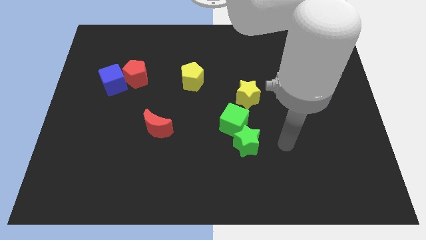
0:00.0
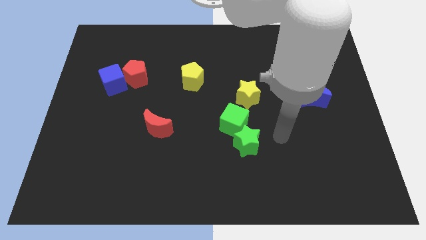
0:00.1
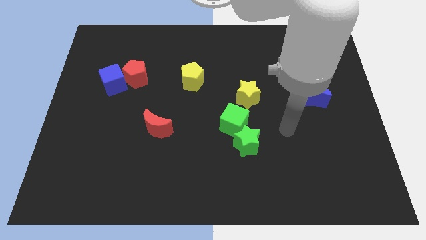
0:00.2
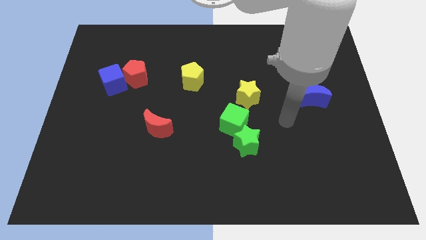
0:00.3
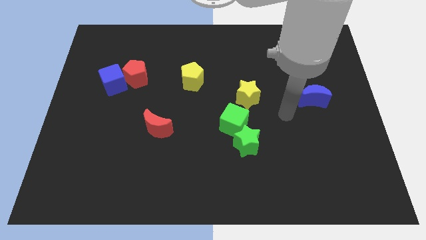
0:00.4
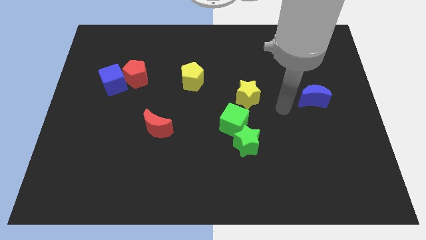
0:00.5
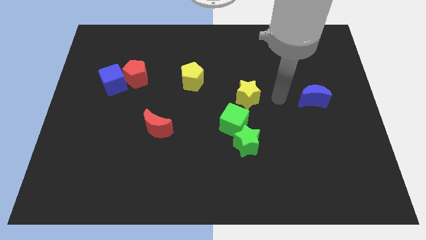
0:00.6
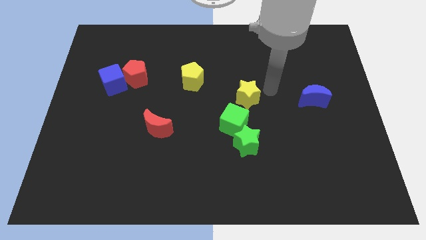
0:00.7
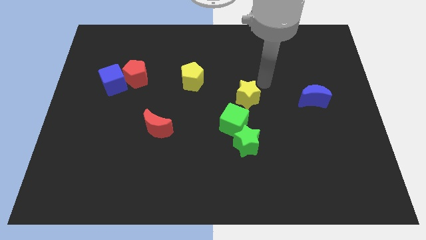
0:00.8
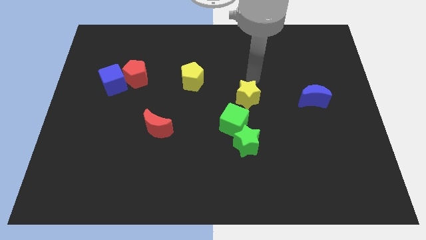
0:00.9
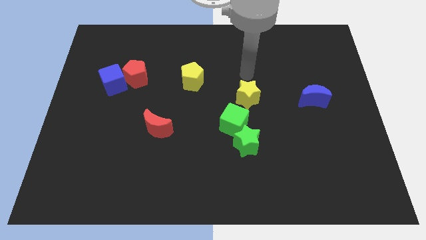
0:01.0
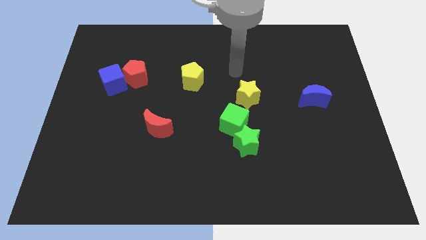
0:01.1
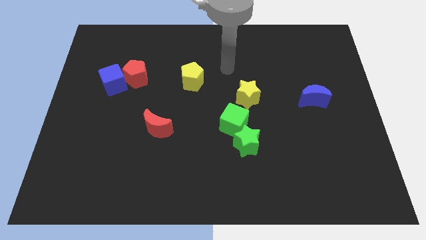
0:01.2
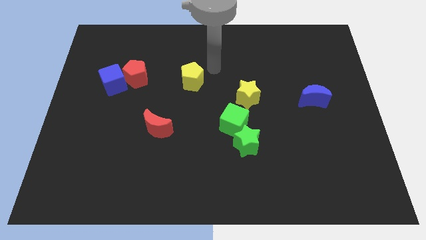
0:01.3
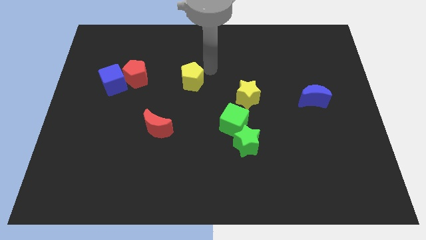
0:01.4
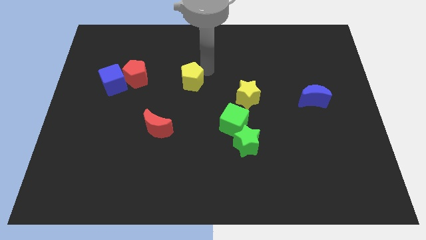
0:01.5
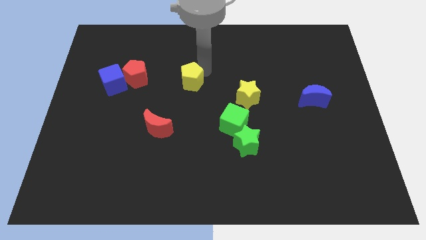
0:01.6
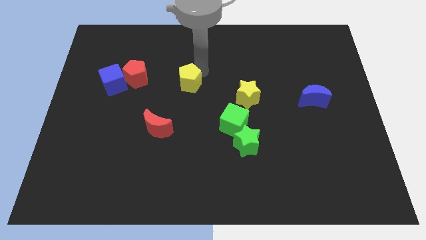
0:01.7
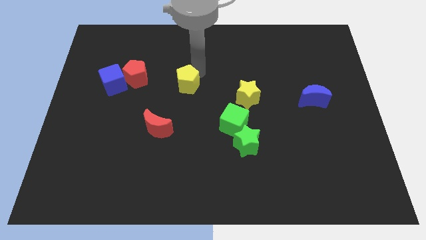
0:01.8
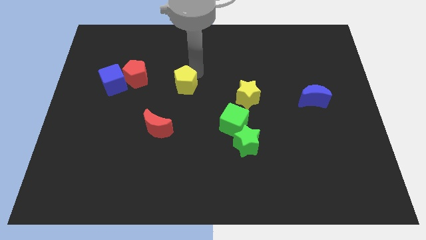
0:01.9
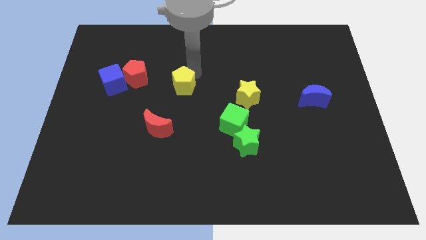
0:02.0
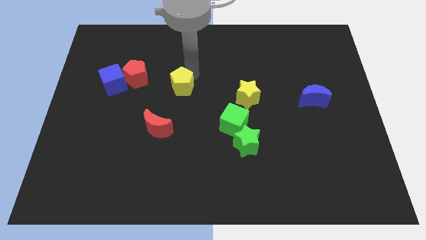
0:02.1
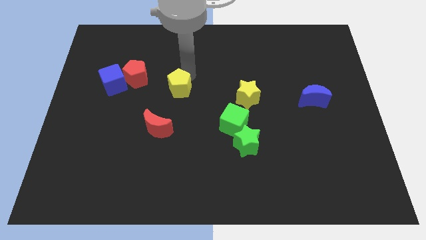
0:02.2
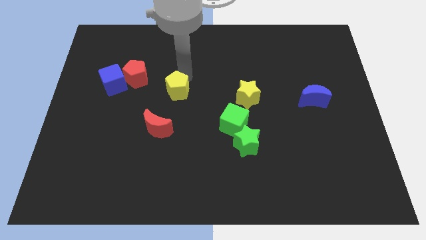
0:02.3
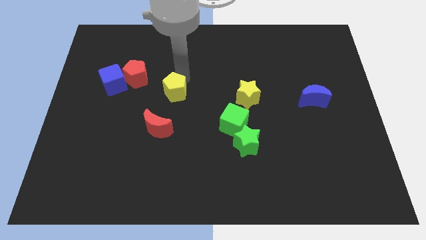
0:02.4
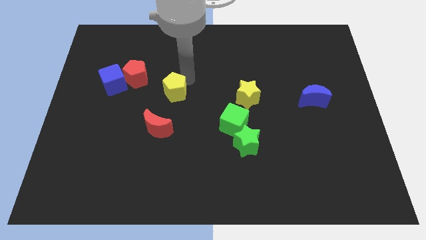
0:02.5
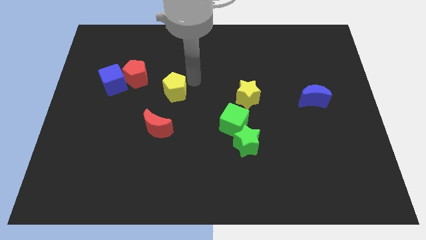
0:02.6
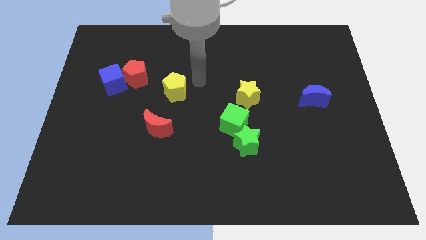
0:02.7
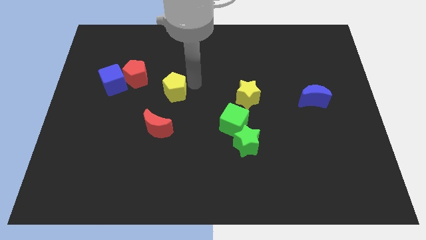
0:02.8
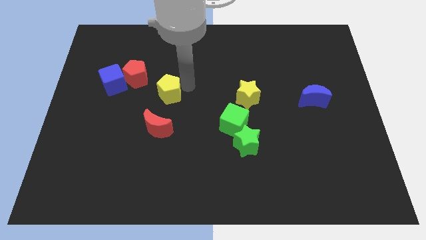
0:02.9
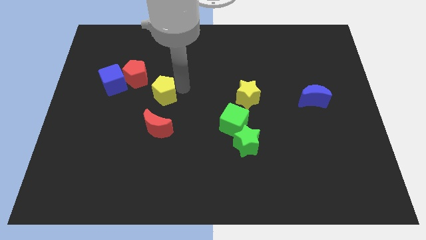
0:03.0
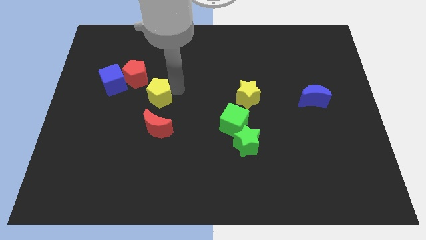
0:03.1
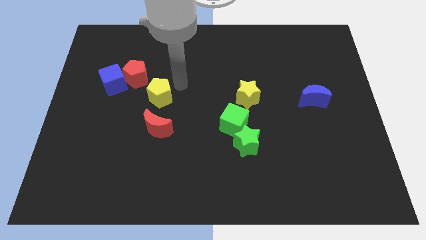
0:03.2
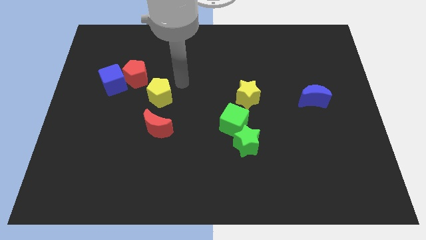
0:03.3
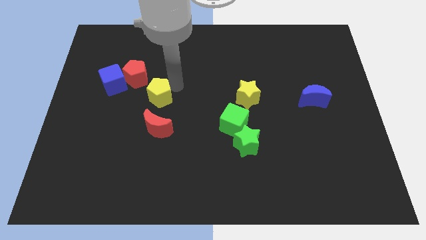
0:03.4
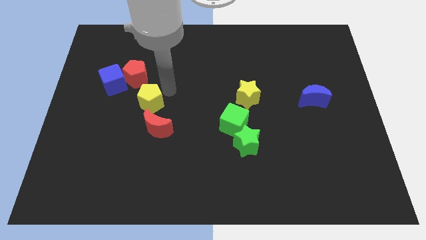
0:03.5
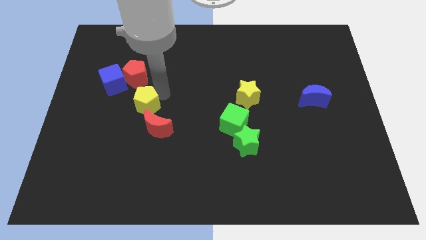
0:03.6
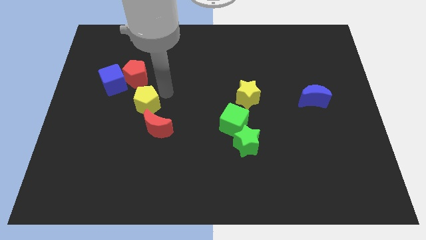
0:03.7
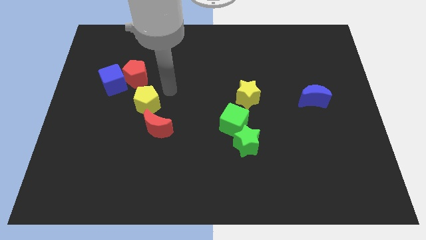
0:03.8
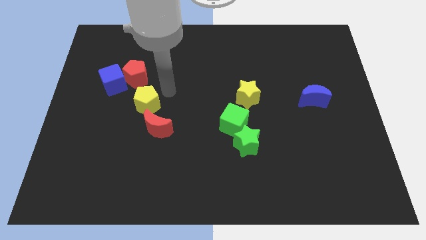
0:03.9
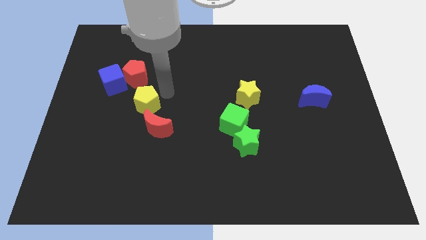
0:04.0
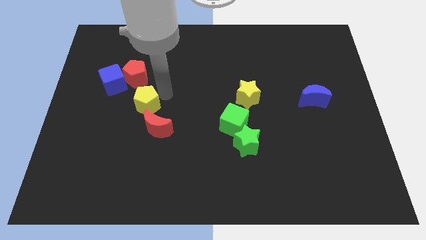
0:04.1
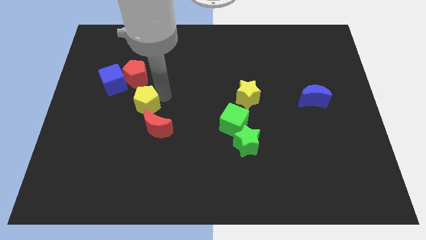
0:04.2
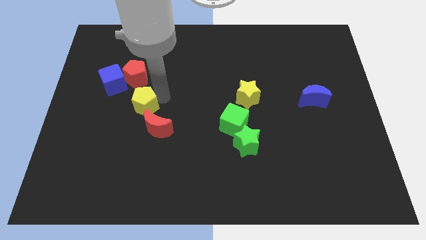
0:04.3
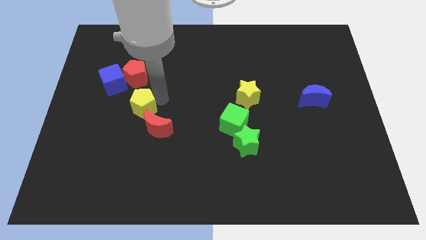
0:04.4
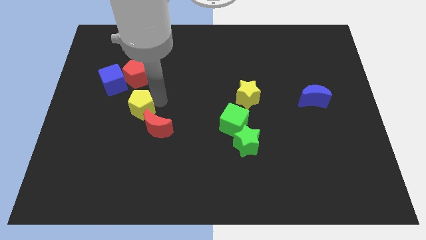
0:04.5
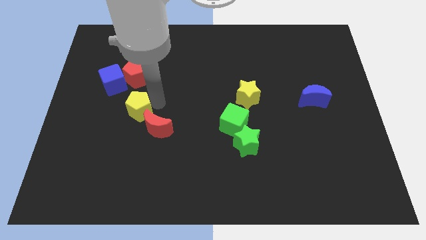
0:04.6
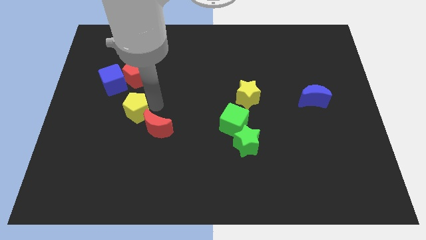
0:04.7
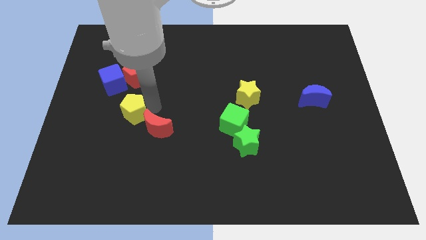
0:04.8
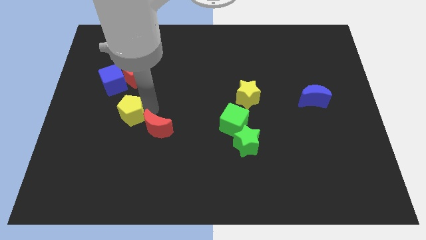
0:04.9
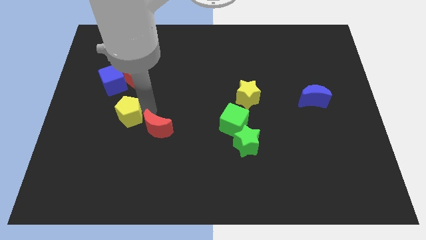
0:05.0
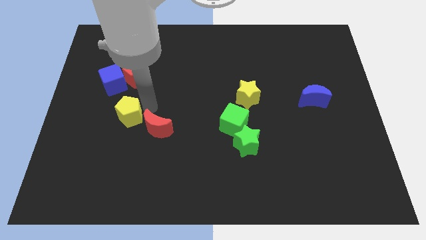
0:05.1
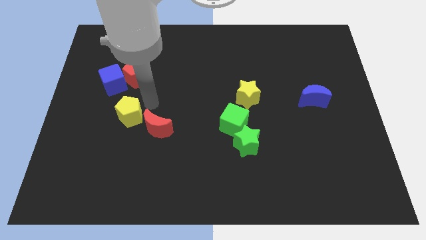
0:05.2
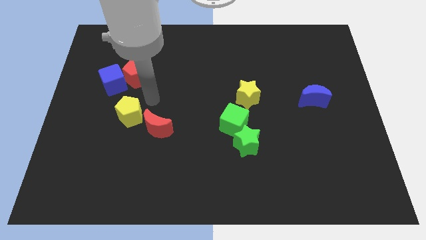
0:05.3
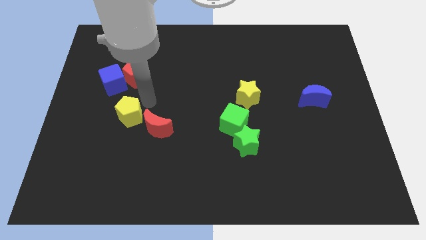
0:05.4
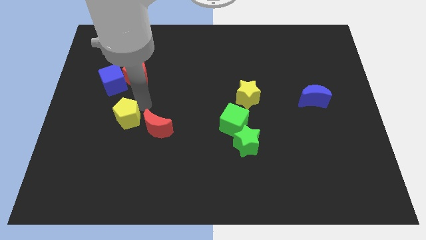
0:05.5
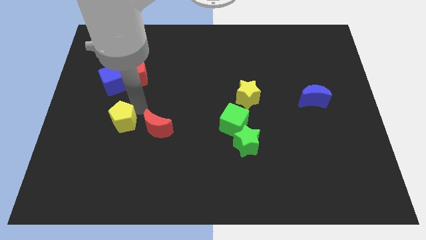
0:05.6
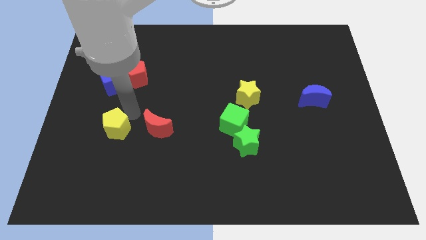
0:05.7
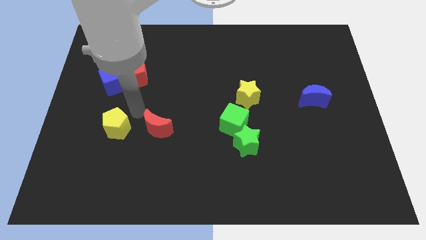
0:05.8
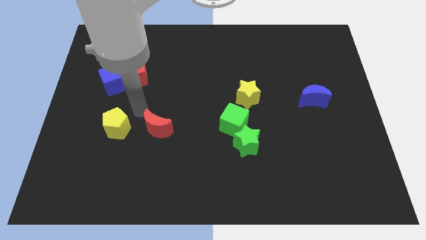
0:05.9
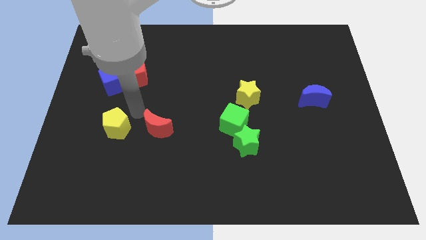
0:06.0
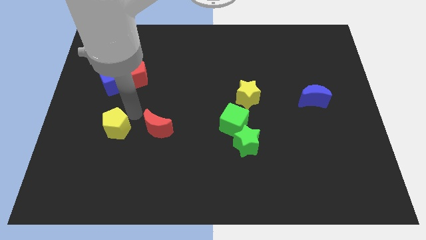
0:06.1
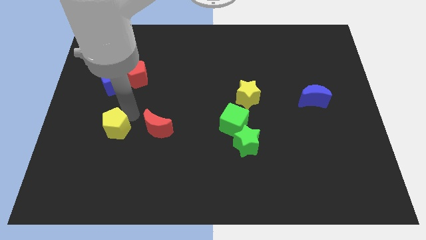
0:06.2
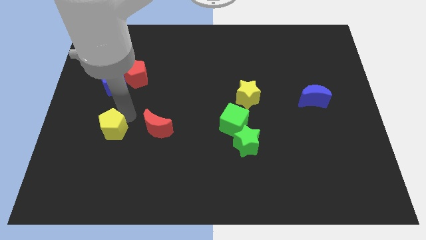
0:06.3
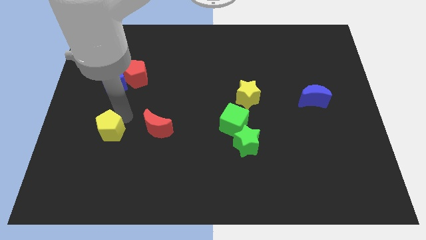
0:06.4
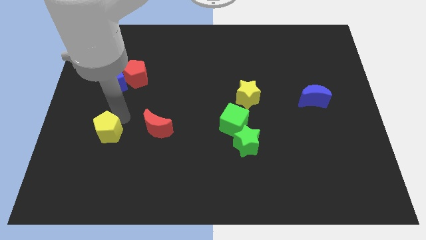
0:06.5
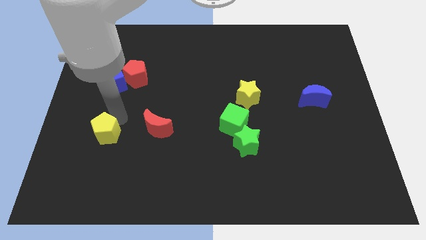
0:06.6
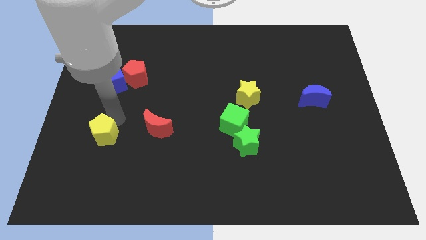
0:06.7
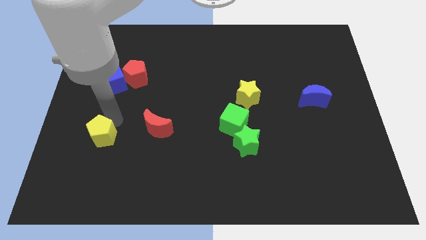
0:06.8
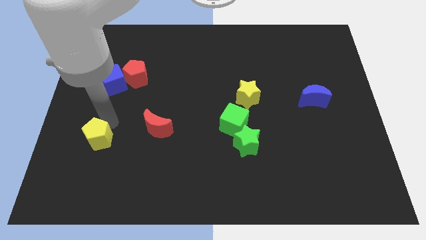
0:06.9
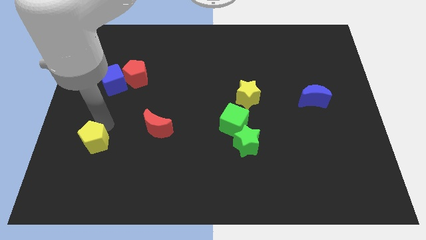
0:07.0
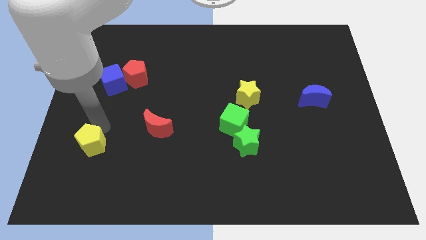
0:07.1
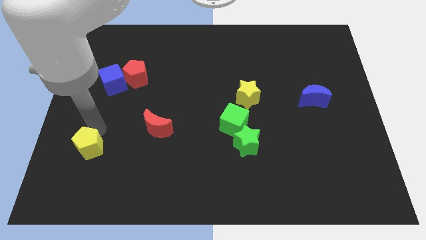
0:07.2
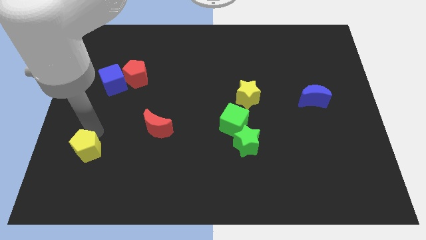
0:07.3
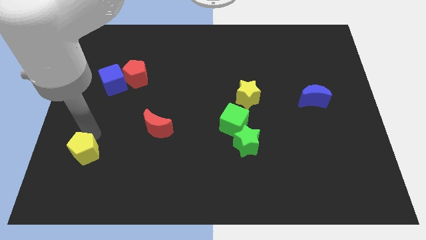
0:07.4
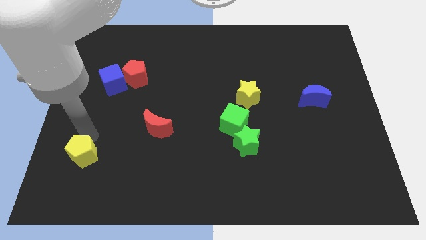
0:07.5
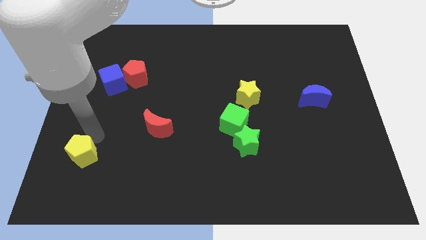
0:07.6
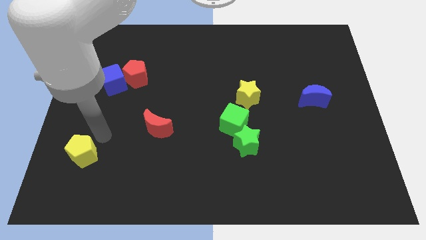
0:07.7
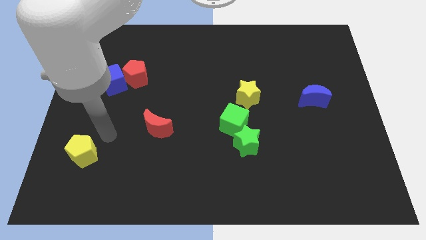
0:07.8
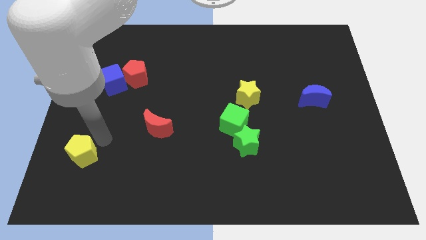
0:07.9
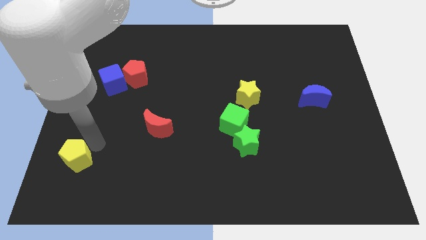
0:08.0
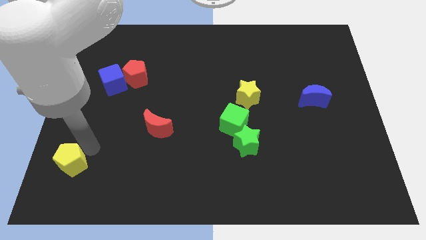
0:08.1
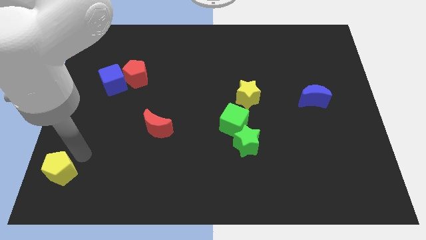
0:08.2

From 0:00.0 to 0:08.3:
put the yellow pentagon to the bottom left
